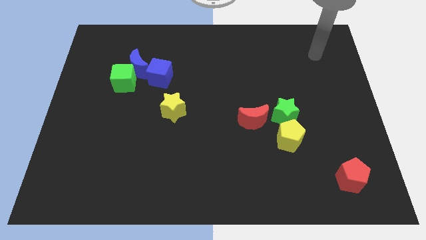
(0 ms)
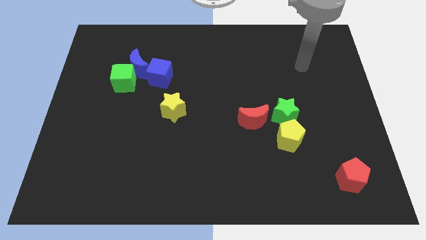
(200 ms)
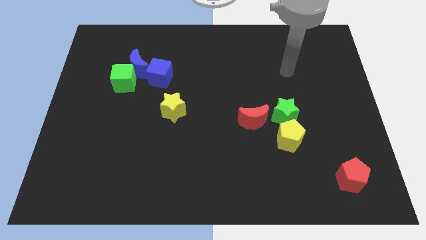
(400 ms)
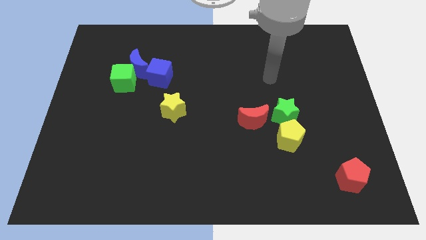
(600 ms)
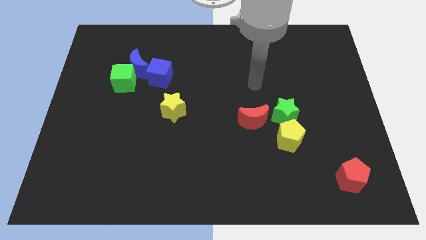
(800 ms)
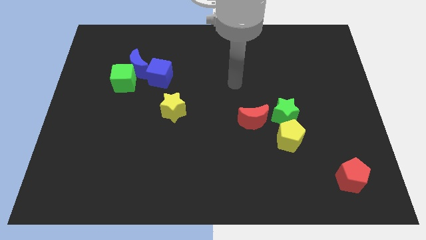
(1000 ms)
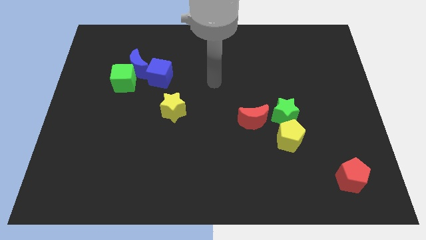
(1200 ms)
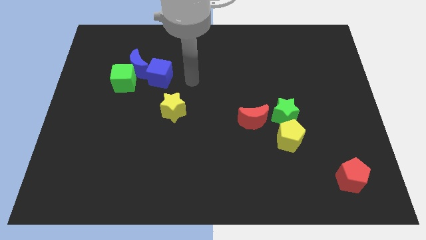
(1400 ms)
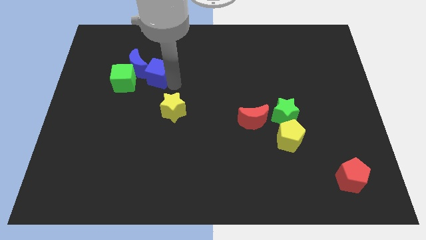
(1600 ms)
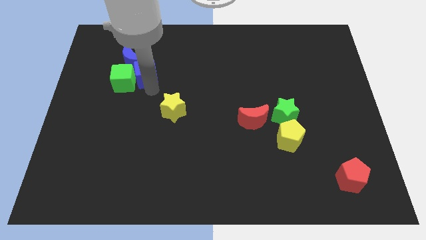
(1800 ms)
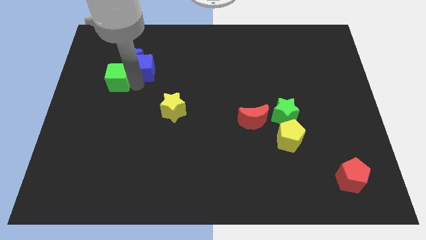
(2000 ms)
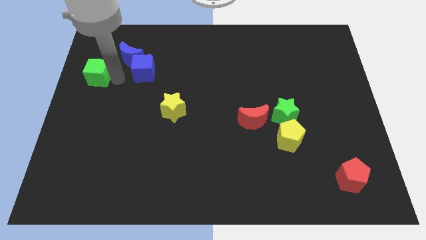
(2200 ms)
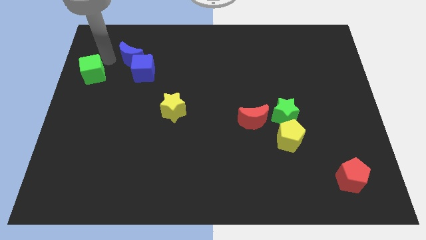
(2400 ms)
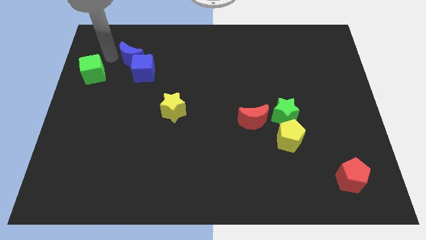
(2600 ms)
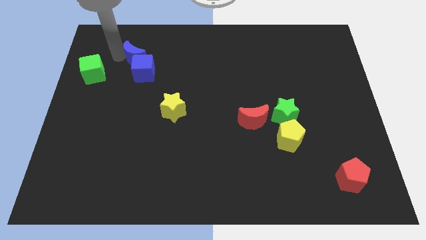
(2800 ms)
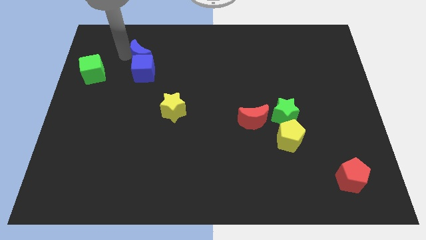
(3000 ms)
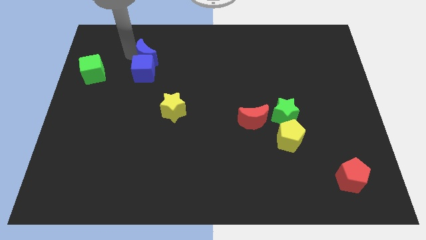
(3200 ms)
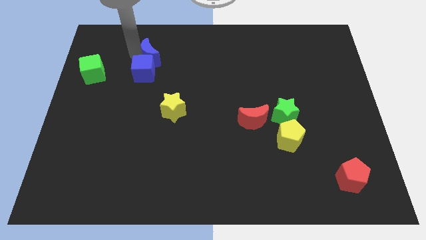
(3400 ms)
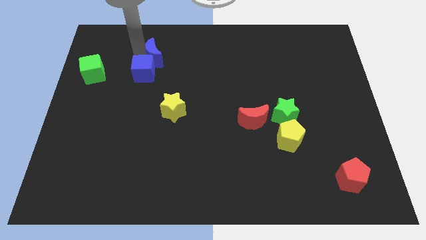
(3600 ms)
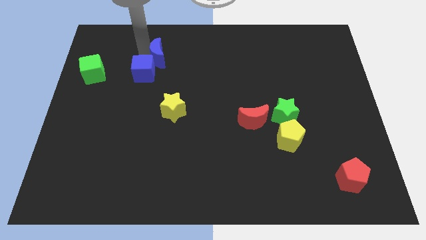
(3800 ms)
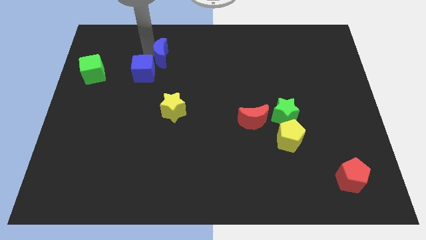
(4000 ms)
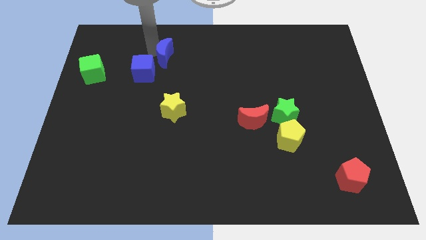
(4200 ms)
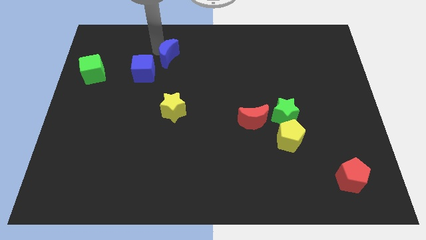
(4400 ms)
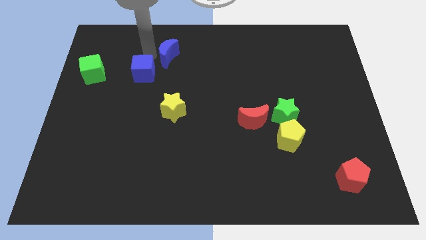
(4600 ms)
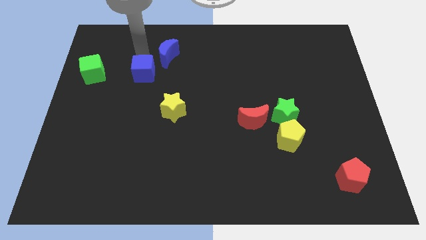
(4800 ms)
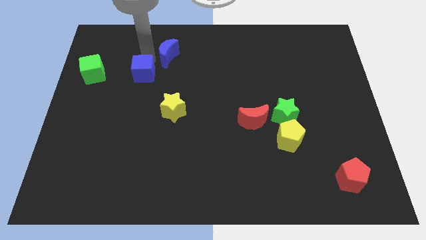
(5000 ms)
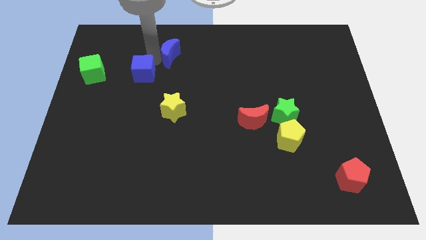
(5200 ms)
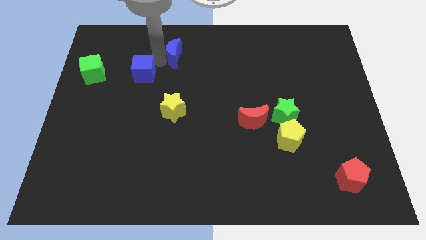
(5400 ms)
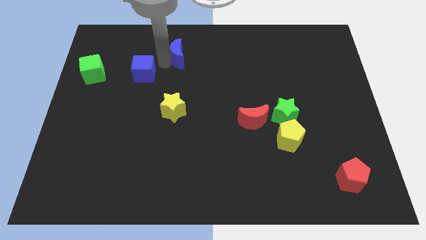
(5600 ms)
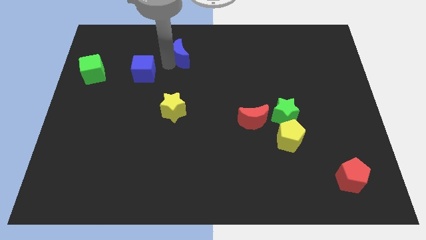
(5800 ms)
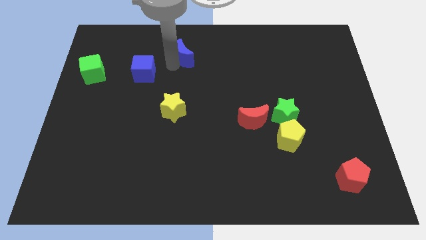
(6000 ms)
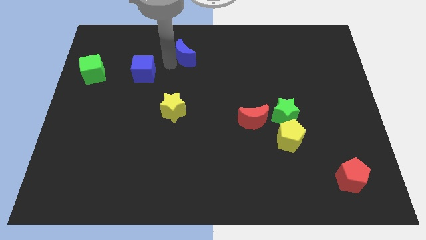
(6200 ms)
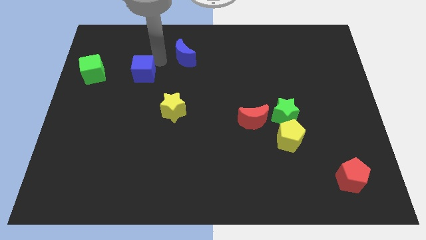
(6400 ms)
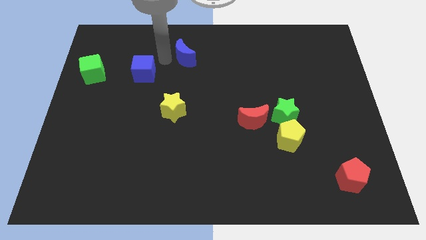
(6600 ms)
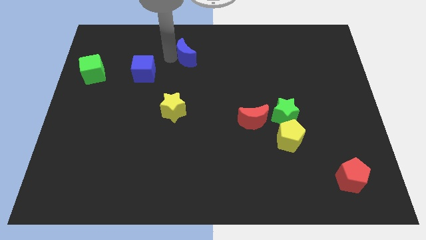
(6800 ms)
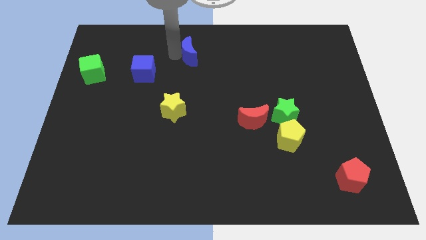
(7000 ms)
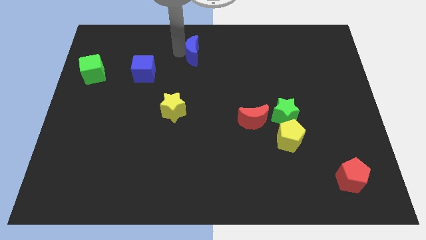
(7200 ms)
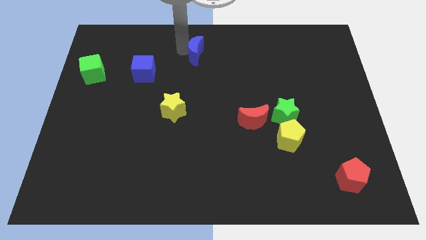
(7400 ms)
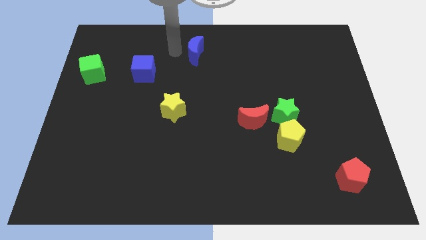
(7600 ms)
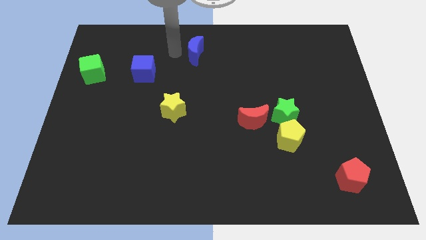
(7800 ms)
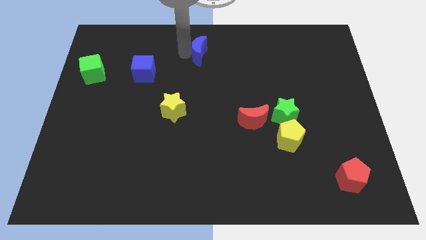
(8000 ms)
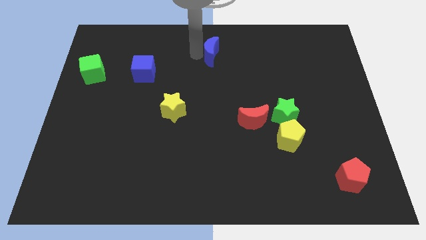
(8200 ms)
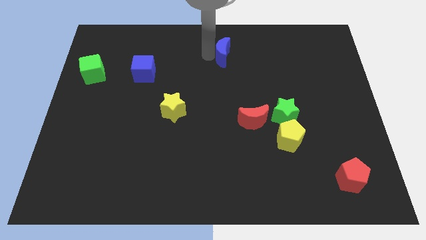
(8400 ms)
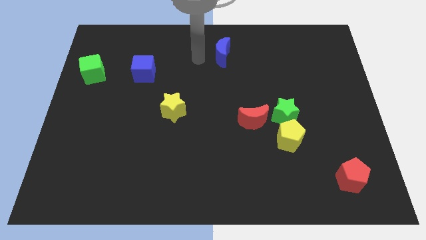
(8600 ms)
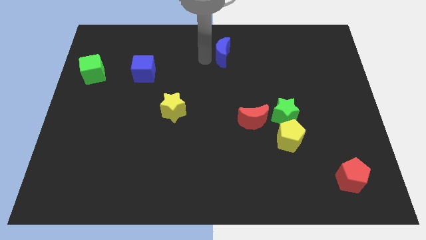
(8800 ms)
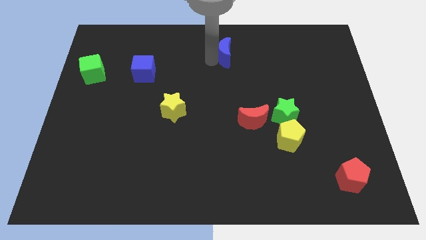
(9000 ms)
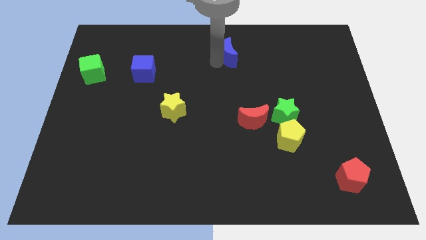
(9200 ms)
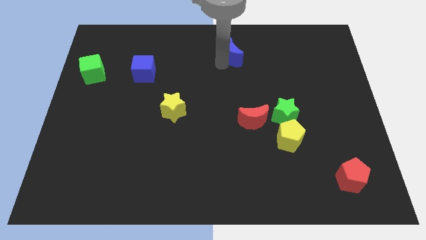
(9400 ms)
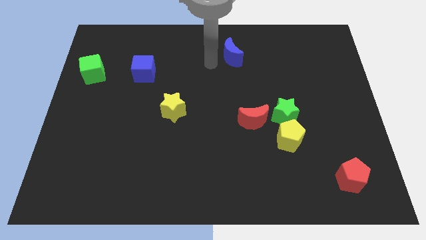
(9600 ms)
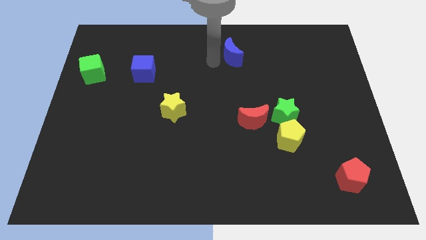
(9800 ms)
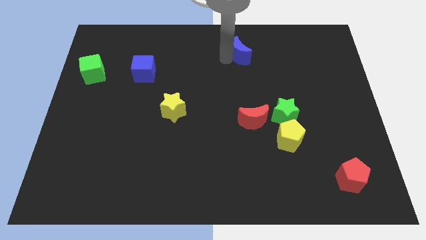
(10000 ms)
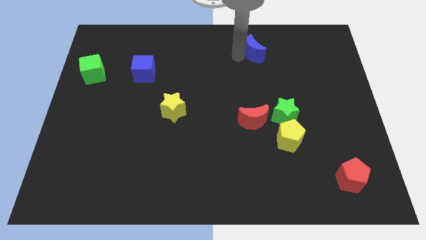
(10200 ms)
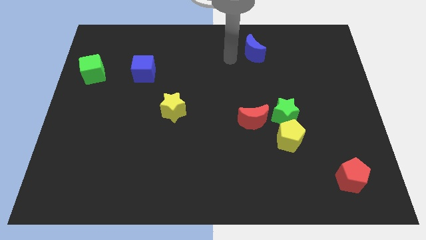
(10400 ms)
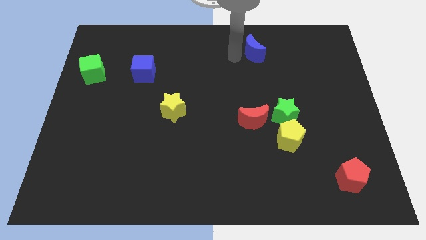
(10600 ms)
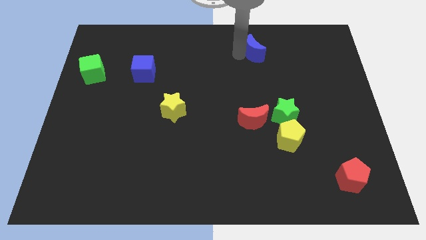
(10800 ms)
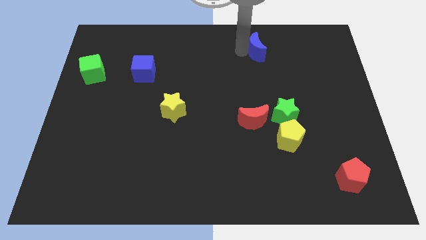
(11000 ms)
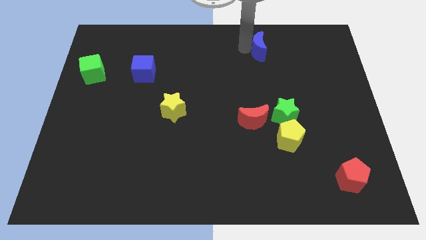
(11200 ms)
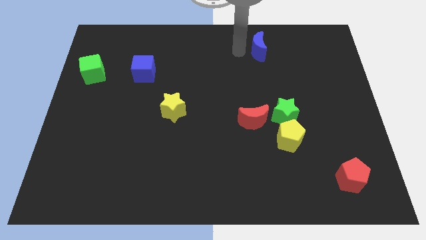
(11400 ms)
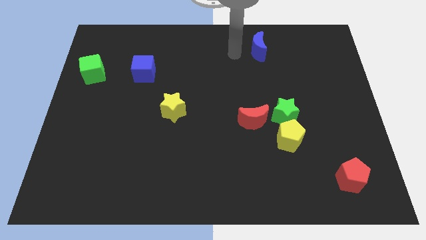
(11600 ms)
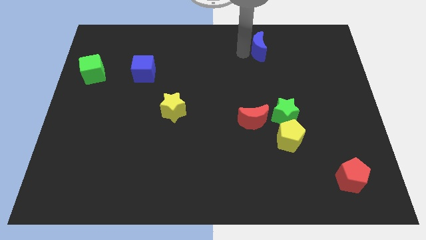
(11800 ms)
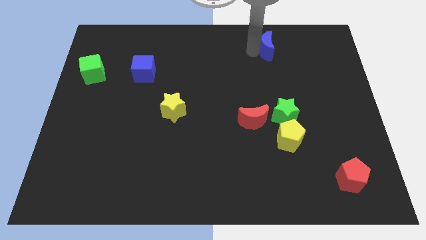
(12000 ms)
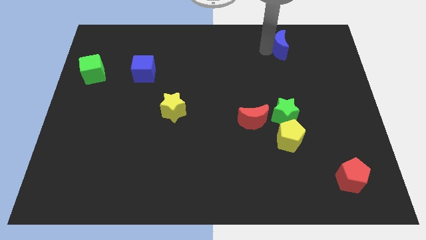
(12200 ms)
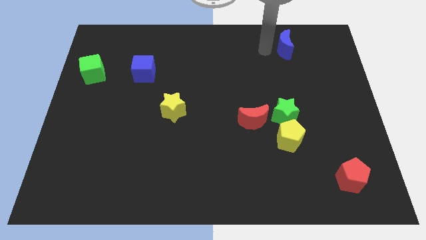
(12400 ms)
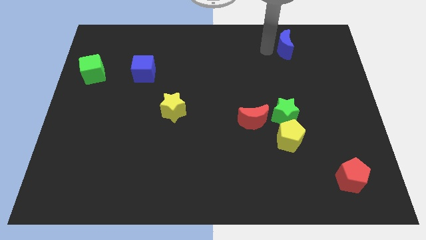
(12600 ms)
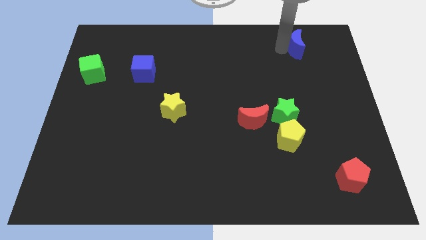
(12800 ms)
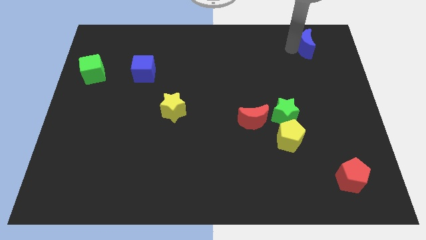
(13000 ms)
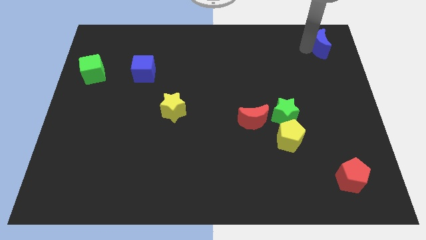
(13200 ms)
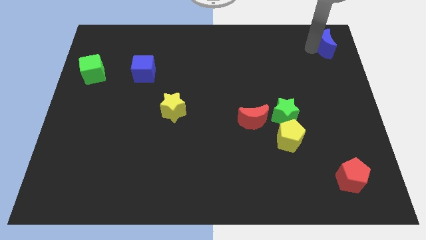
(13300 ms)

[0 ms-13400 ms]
move the blue moon to the top right
